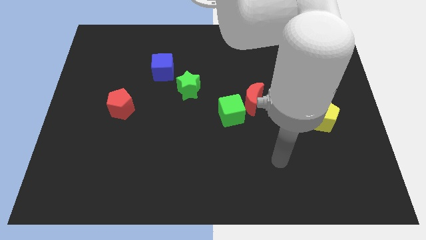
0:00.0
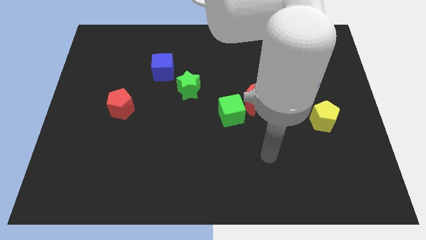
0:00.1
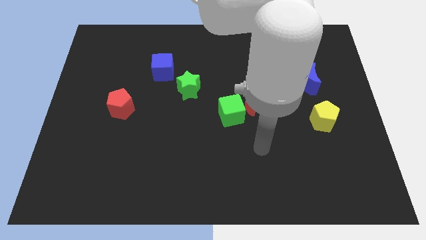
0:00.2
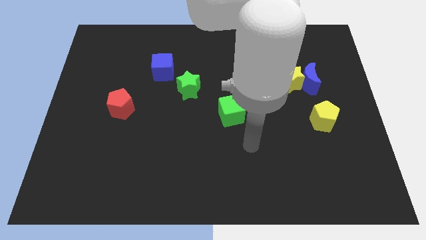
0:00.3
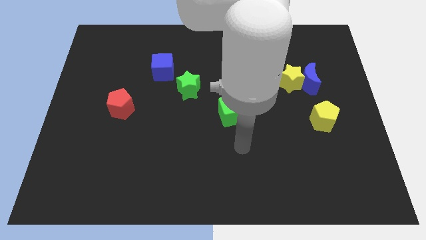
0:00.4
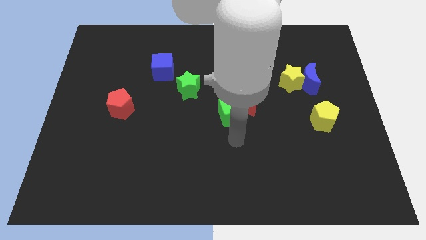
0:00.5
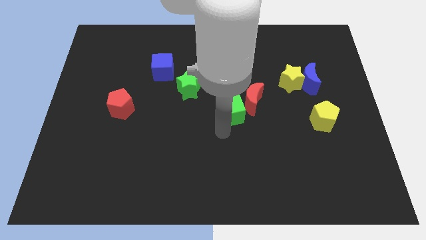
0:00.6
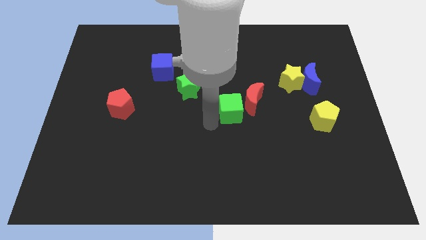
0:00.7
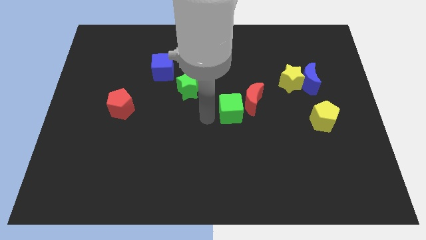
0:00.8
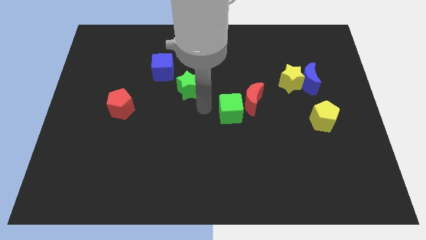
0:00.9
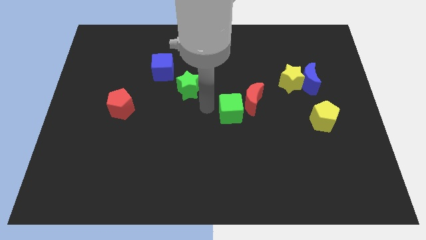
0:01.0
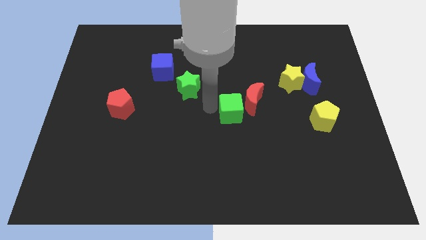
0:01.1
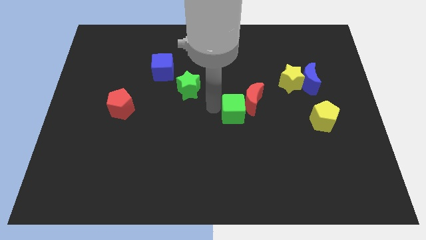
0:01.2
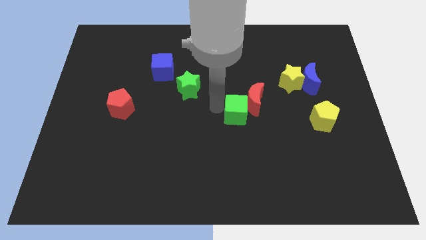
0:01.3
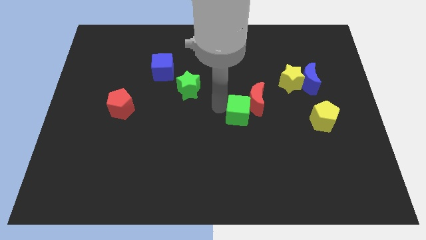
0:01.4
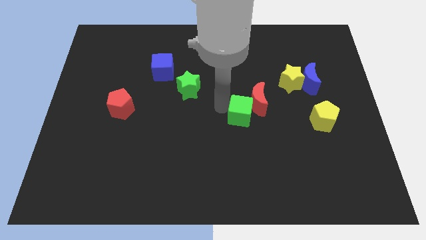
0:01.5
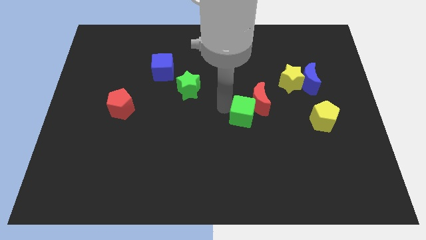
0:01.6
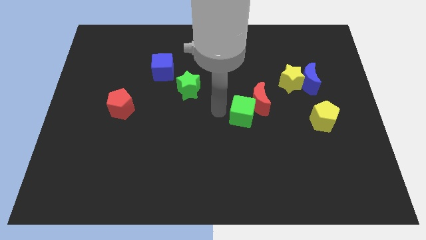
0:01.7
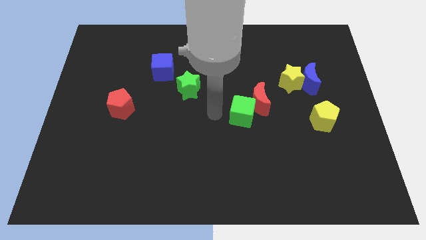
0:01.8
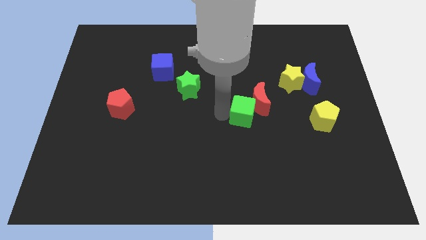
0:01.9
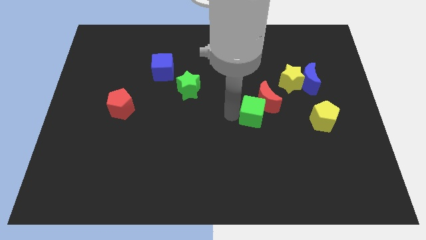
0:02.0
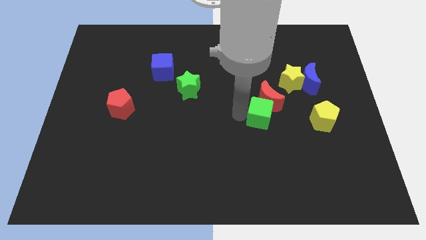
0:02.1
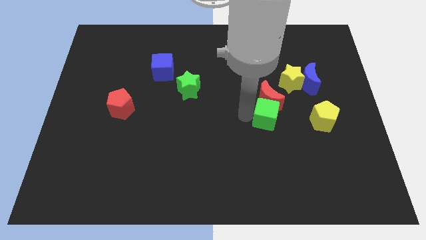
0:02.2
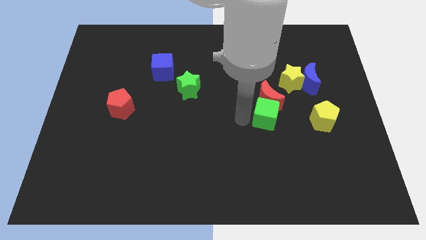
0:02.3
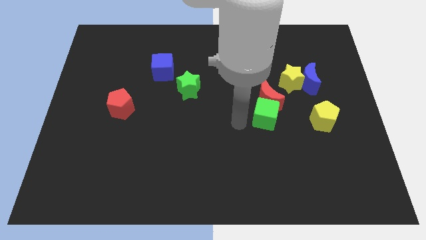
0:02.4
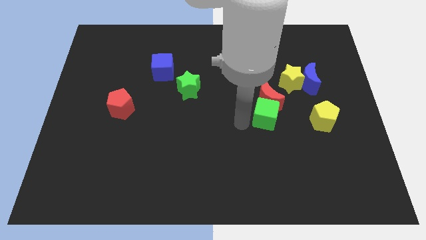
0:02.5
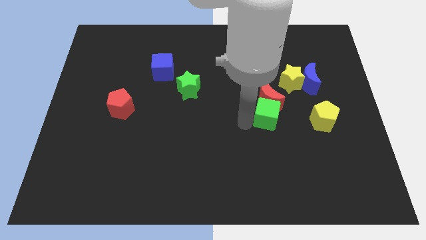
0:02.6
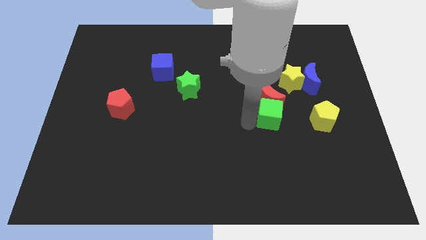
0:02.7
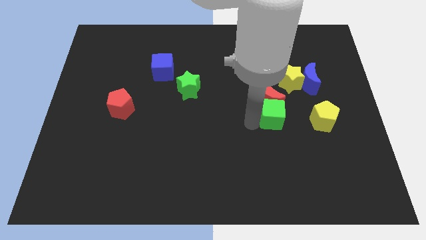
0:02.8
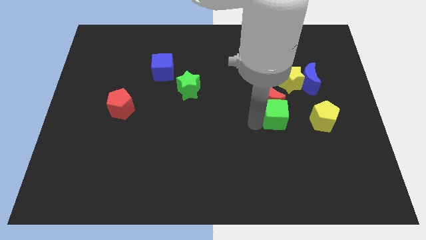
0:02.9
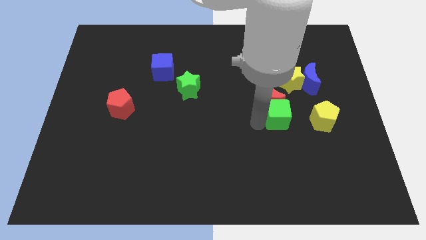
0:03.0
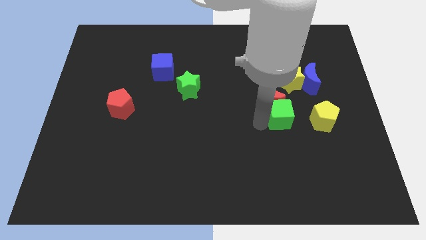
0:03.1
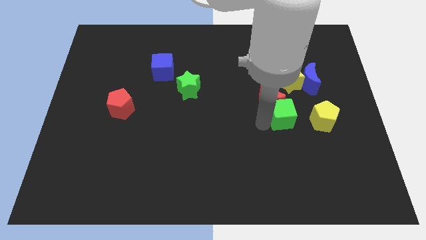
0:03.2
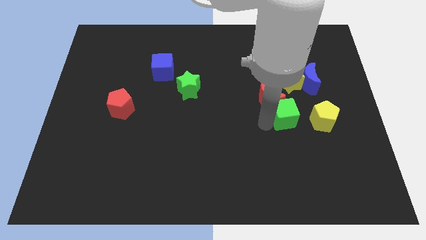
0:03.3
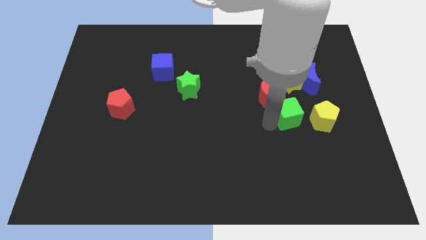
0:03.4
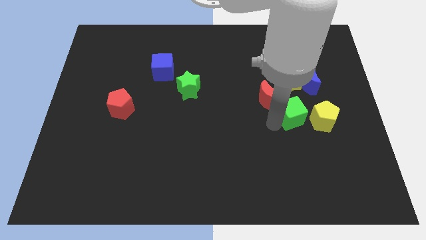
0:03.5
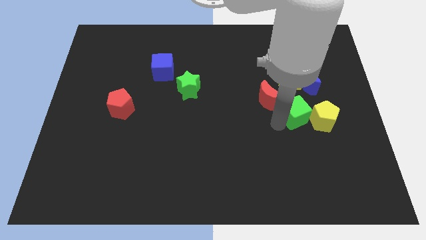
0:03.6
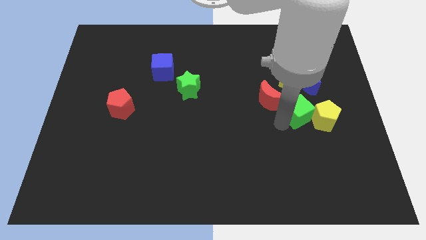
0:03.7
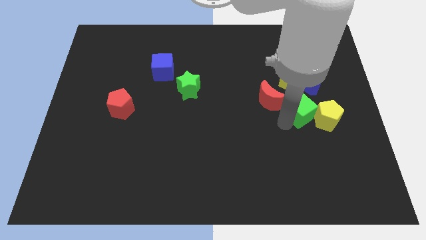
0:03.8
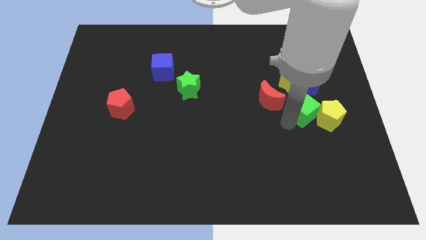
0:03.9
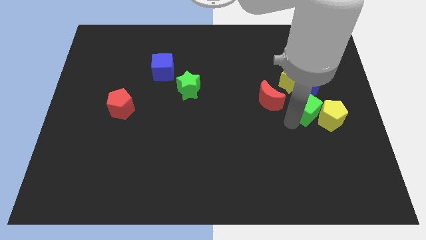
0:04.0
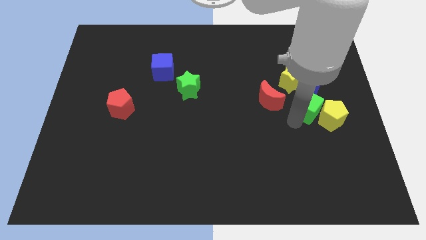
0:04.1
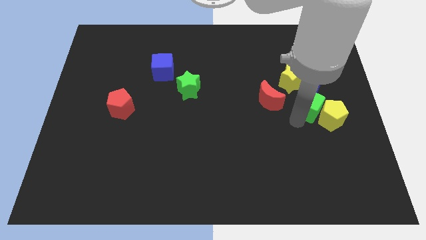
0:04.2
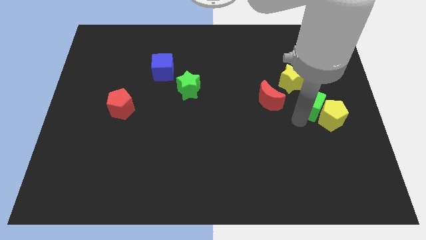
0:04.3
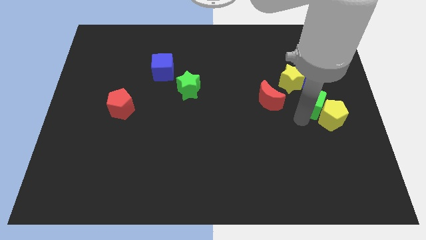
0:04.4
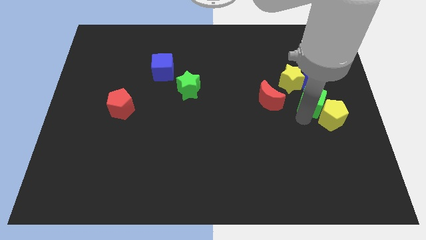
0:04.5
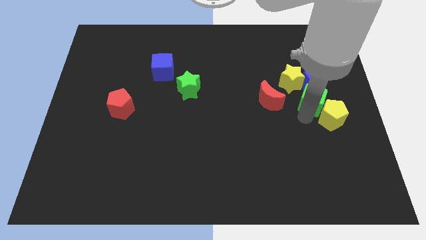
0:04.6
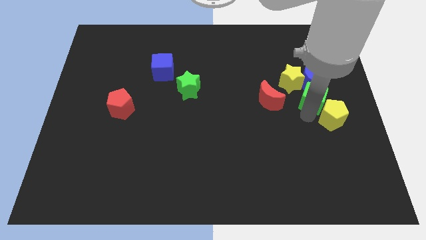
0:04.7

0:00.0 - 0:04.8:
move the green cube to the blue moon

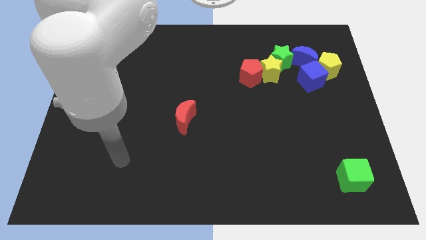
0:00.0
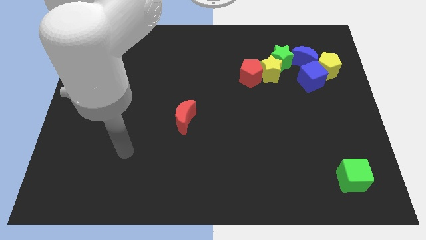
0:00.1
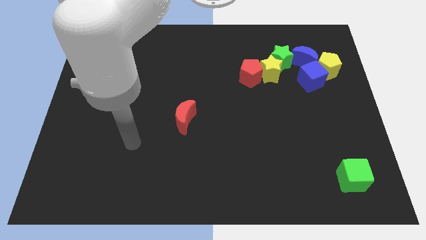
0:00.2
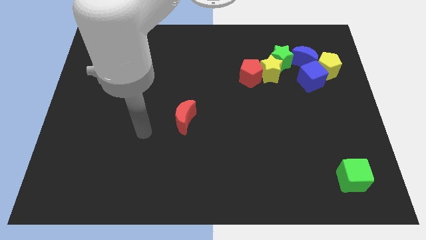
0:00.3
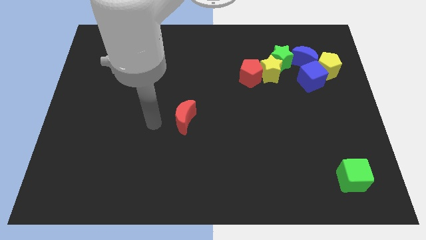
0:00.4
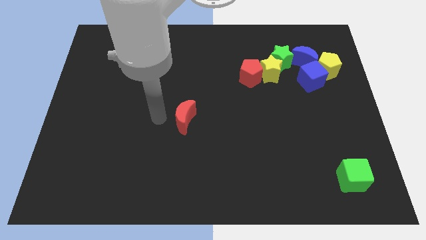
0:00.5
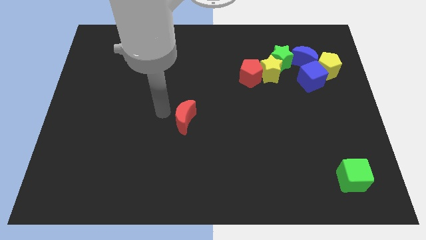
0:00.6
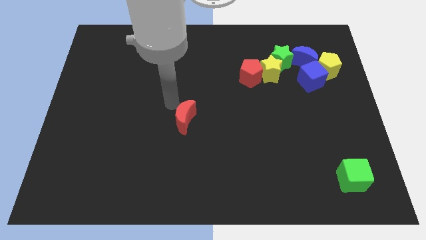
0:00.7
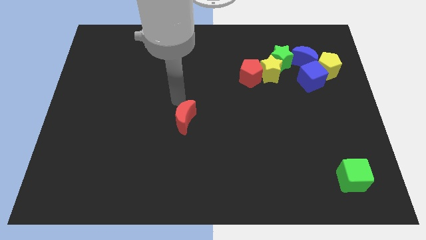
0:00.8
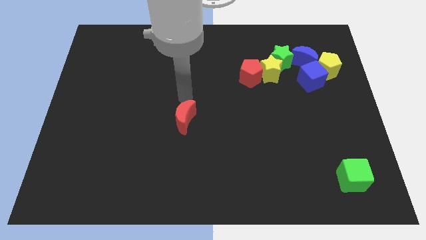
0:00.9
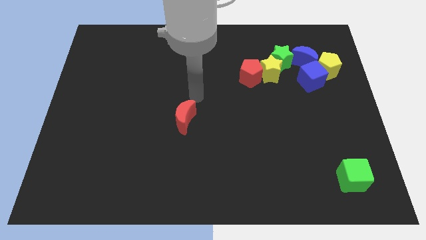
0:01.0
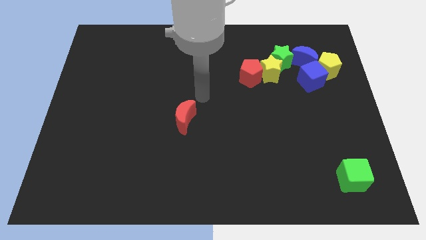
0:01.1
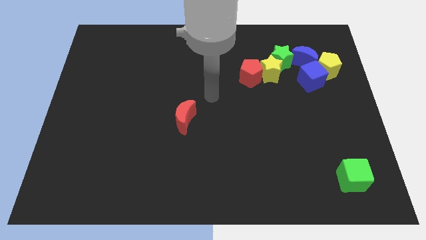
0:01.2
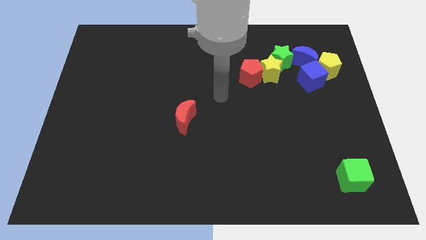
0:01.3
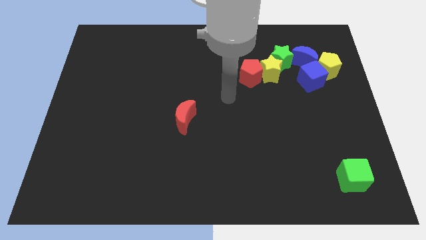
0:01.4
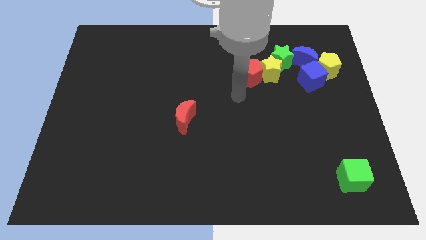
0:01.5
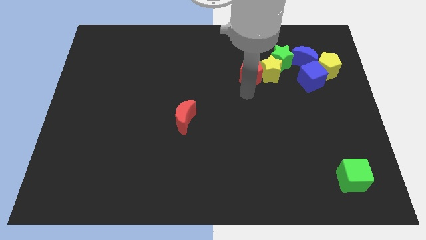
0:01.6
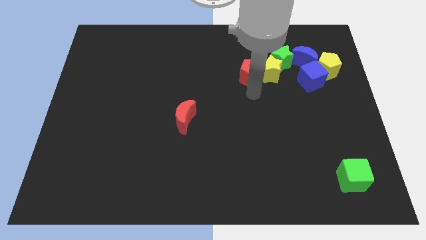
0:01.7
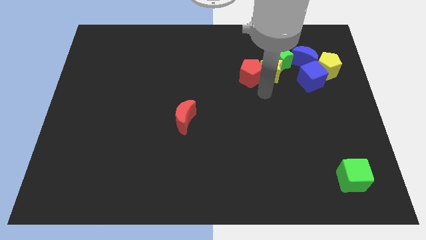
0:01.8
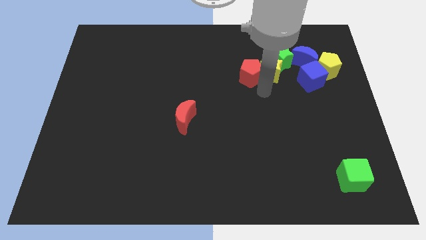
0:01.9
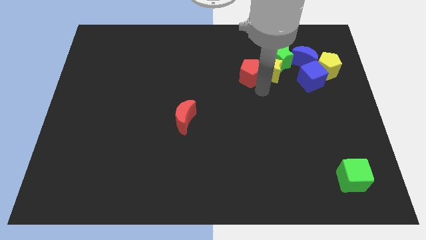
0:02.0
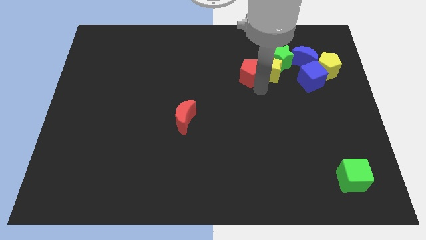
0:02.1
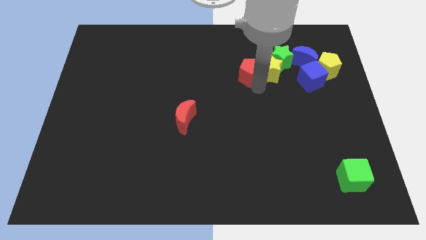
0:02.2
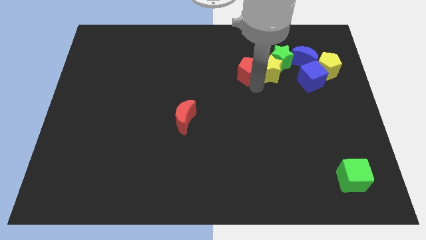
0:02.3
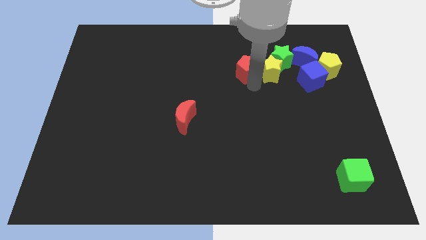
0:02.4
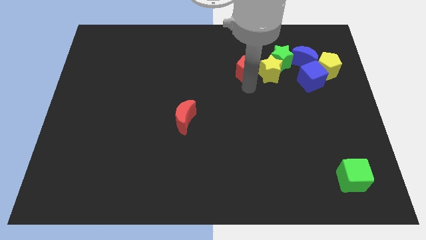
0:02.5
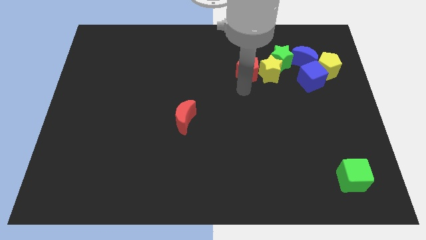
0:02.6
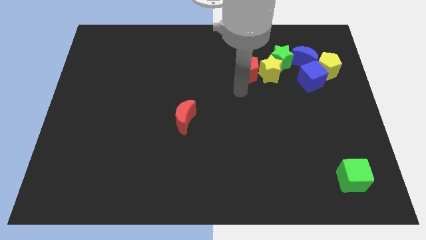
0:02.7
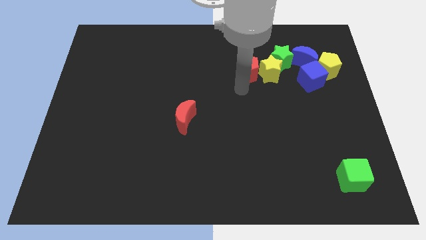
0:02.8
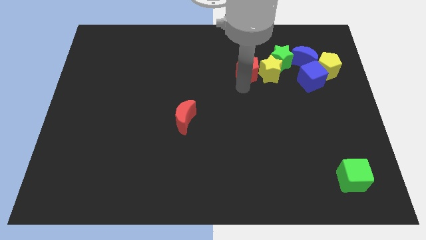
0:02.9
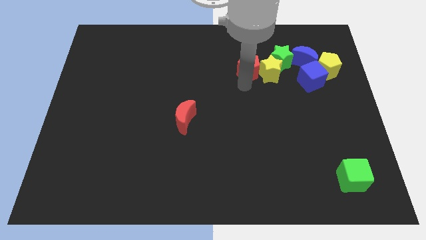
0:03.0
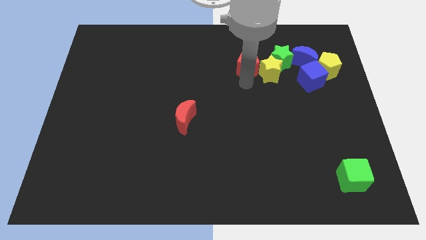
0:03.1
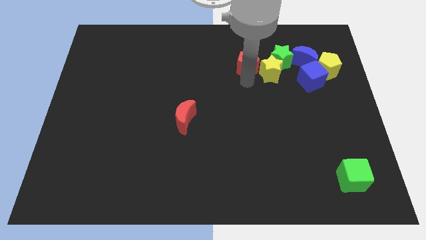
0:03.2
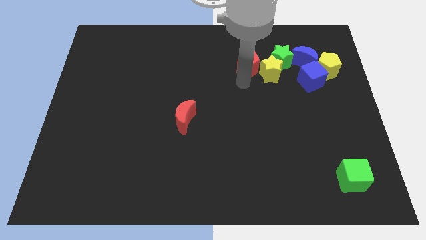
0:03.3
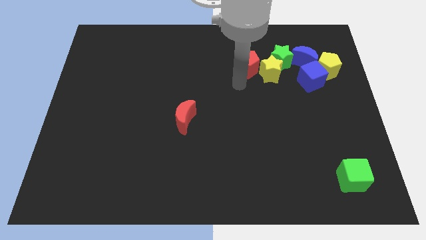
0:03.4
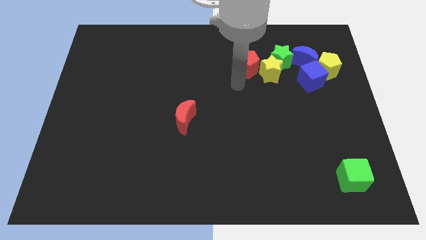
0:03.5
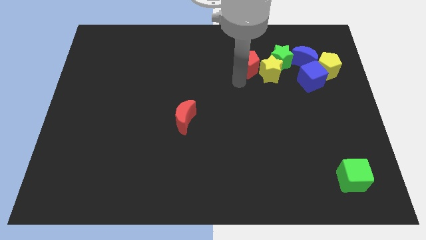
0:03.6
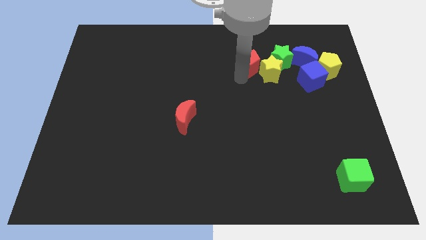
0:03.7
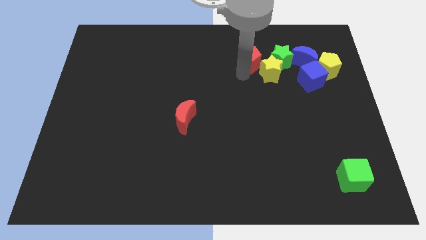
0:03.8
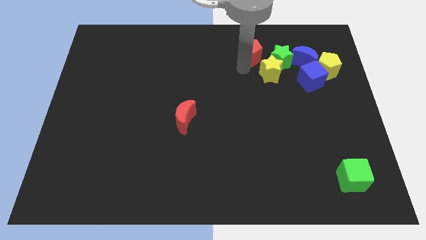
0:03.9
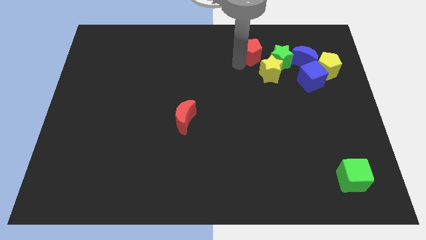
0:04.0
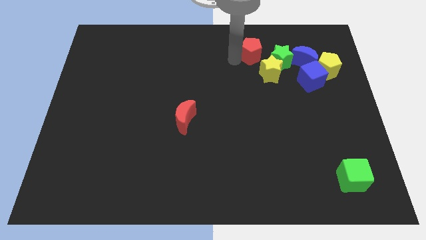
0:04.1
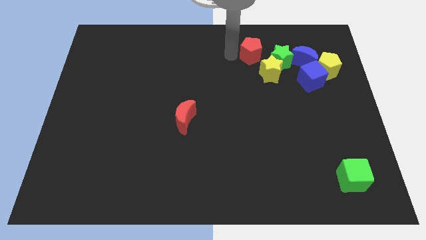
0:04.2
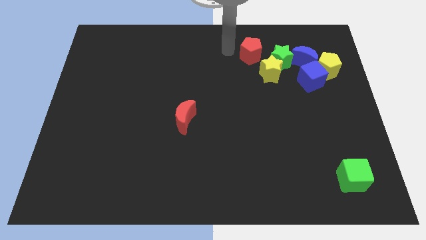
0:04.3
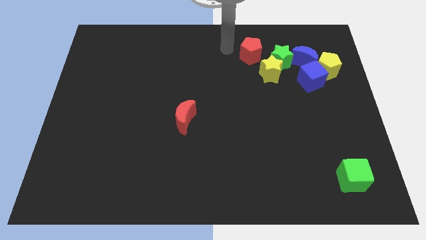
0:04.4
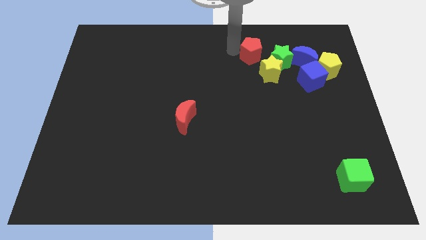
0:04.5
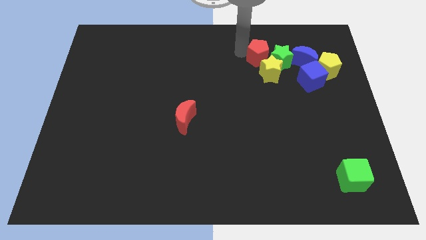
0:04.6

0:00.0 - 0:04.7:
put the red pentagon close to the green star
